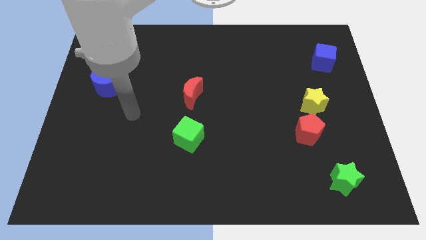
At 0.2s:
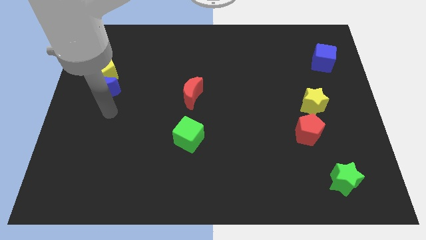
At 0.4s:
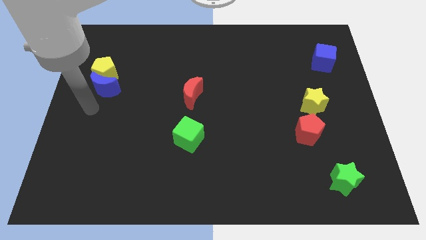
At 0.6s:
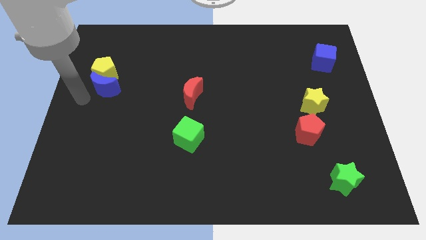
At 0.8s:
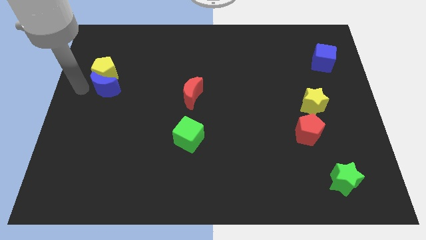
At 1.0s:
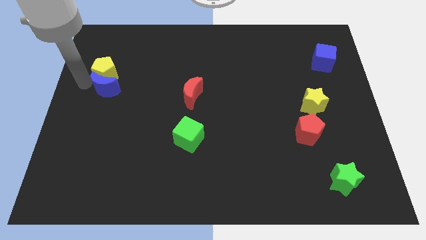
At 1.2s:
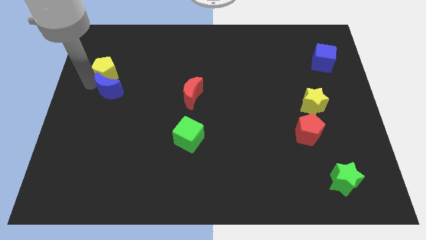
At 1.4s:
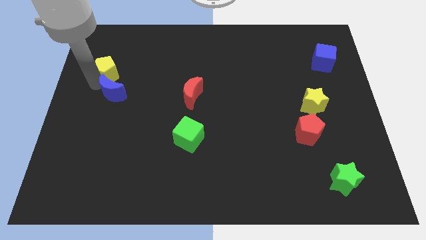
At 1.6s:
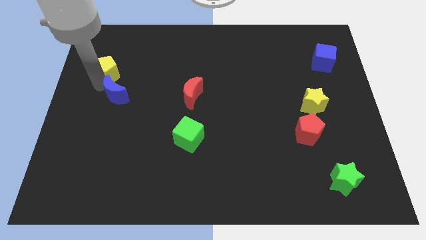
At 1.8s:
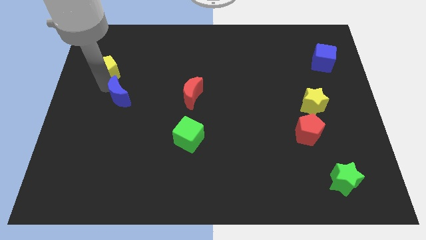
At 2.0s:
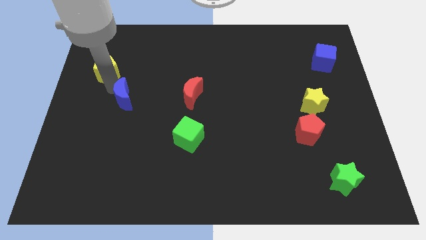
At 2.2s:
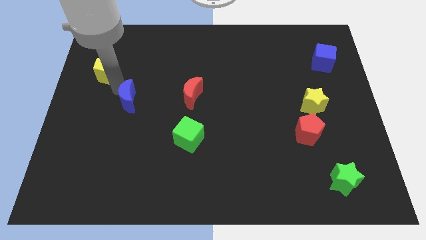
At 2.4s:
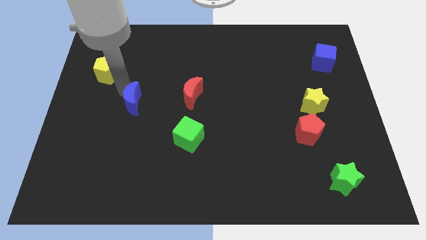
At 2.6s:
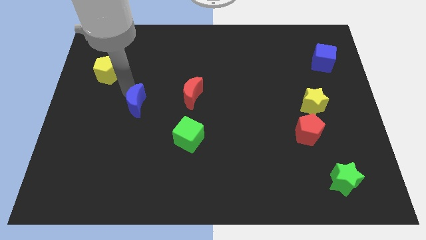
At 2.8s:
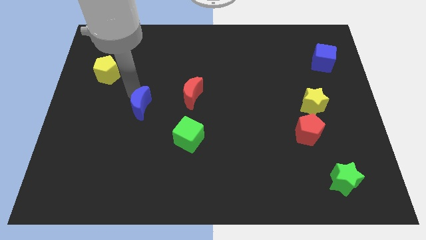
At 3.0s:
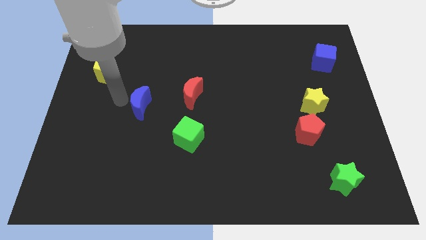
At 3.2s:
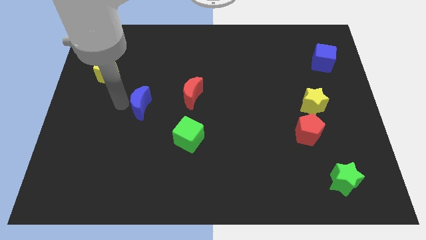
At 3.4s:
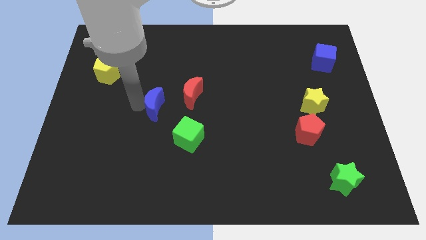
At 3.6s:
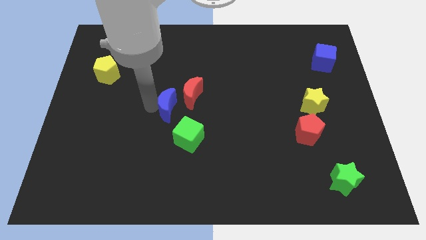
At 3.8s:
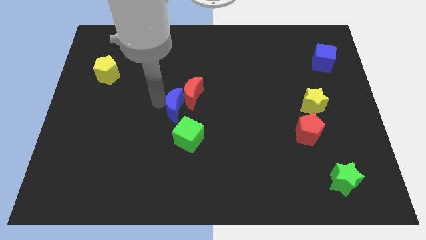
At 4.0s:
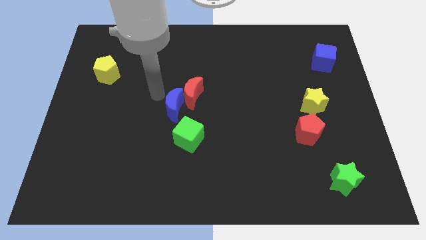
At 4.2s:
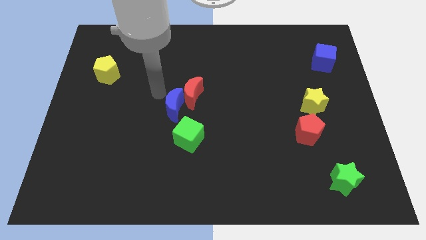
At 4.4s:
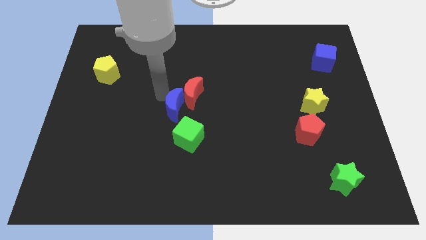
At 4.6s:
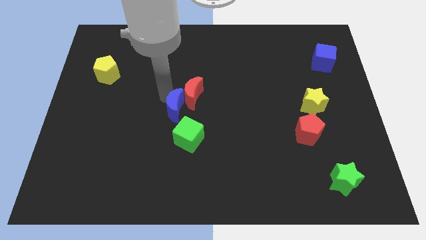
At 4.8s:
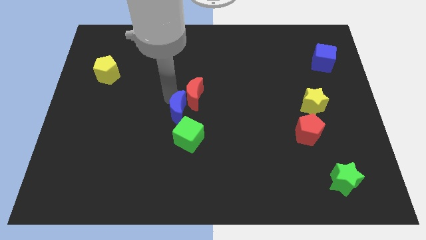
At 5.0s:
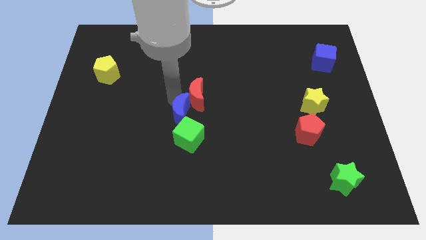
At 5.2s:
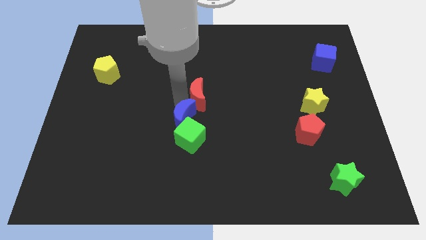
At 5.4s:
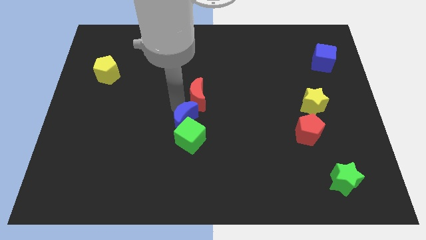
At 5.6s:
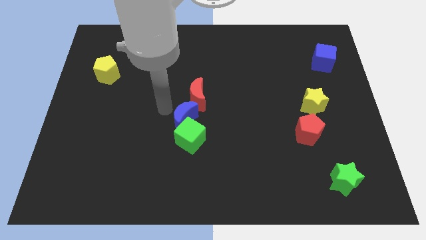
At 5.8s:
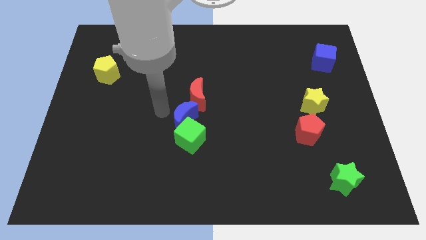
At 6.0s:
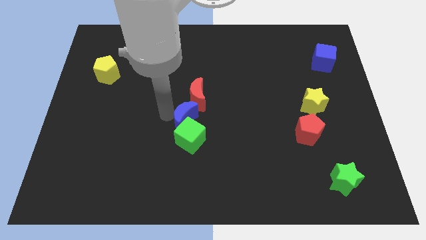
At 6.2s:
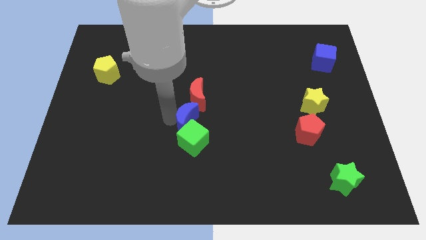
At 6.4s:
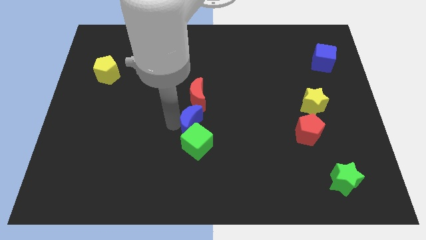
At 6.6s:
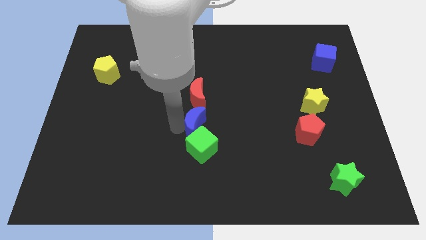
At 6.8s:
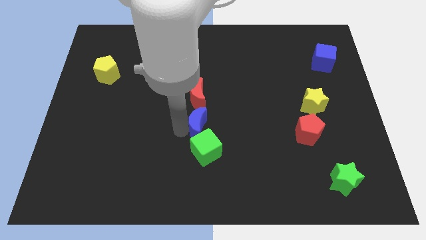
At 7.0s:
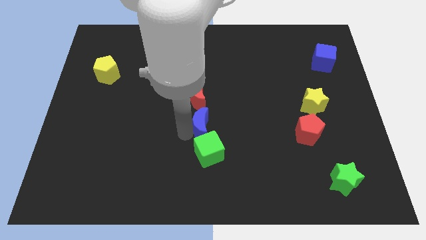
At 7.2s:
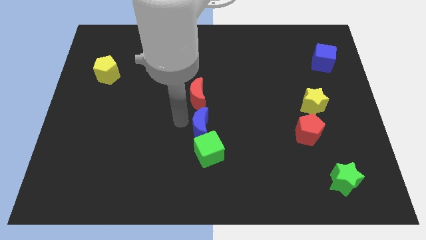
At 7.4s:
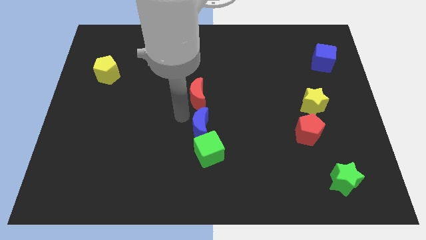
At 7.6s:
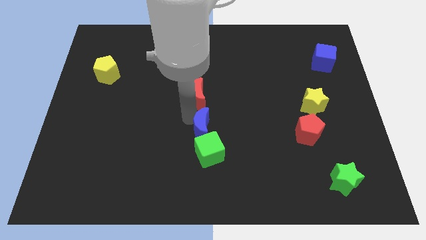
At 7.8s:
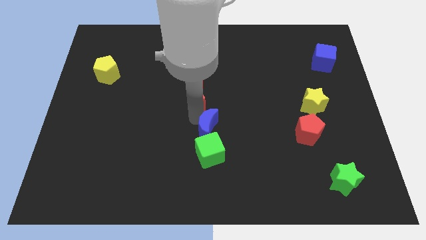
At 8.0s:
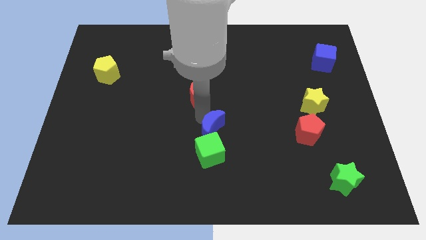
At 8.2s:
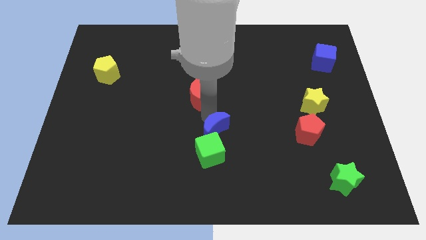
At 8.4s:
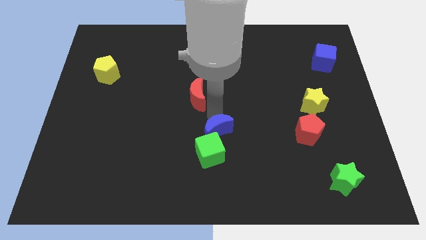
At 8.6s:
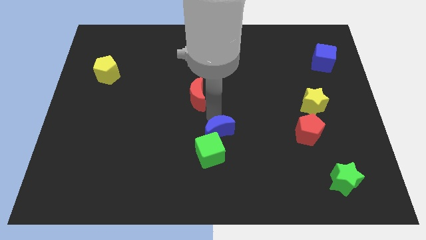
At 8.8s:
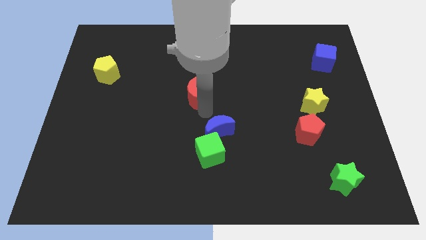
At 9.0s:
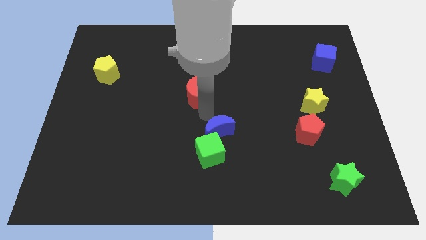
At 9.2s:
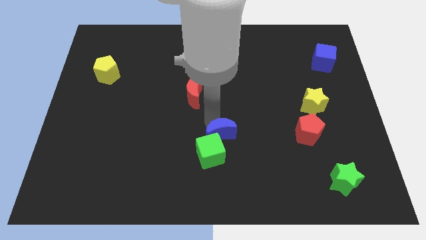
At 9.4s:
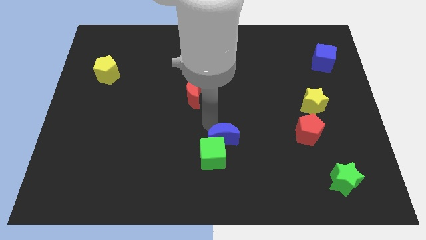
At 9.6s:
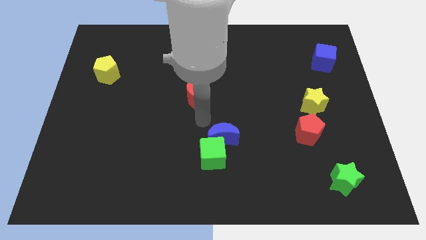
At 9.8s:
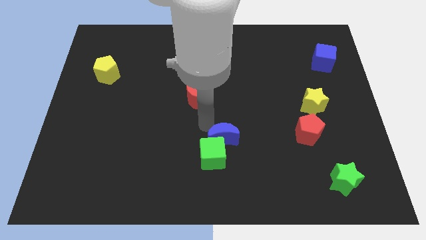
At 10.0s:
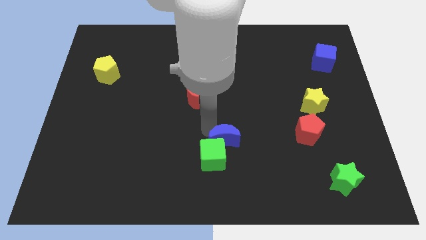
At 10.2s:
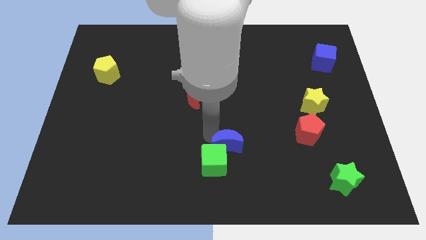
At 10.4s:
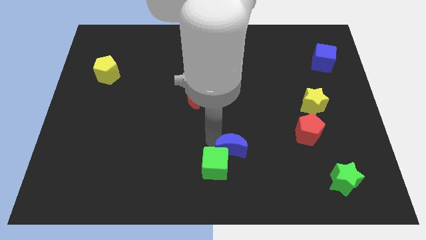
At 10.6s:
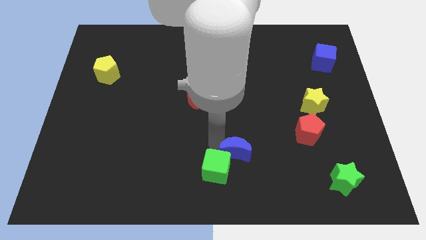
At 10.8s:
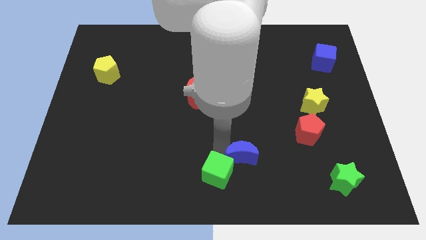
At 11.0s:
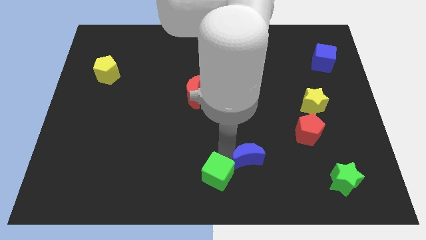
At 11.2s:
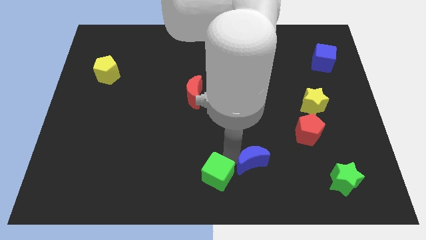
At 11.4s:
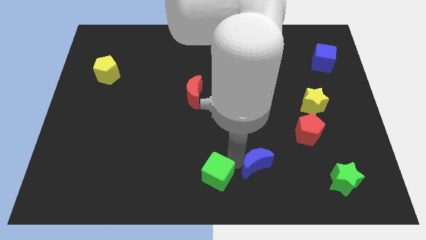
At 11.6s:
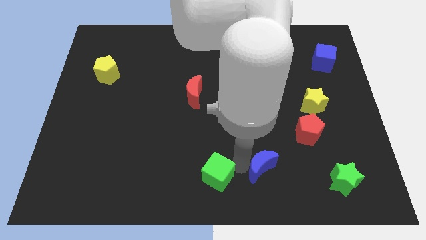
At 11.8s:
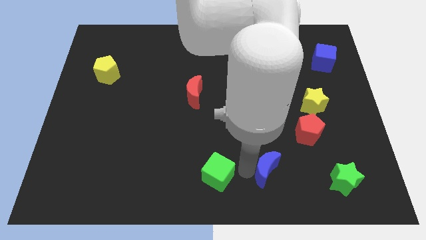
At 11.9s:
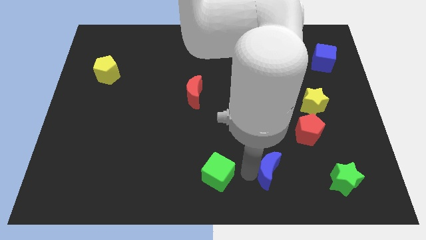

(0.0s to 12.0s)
move the blue moon just left of the green star

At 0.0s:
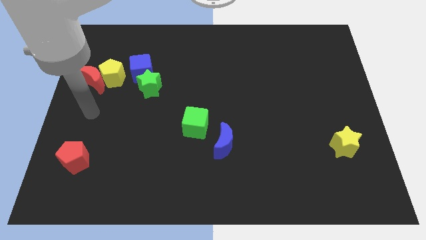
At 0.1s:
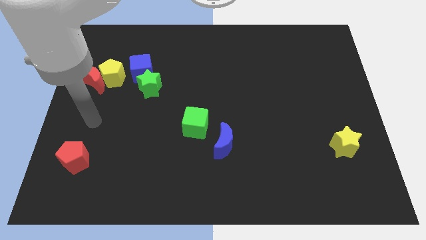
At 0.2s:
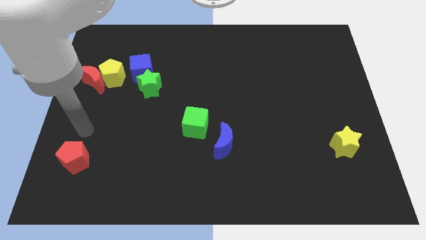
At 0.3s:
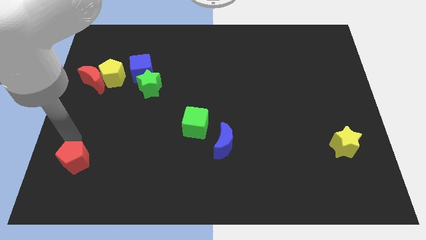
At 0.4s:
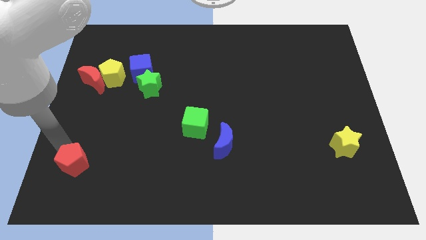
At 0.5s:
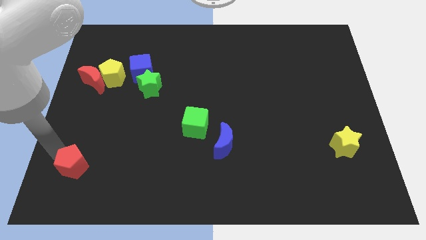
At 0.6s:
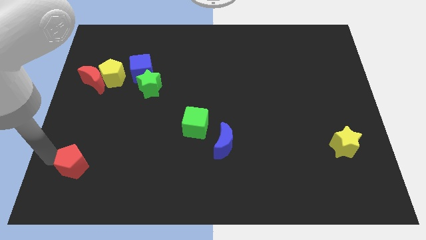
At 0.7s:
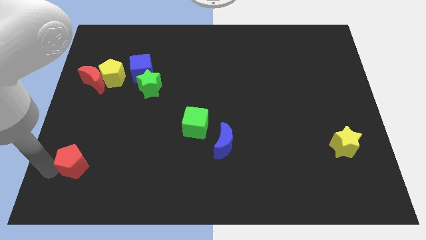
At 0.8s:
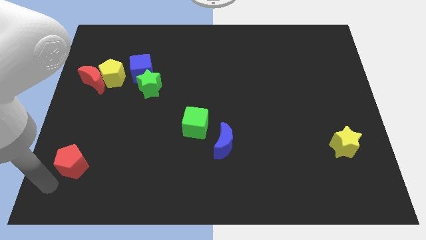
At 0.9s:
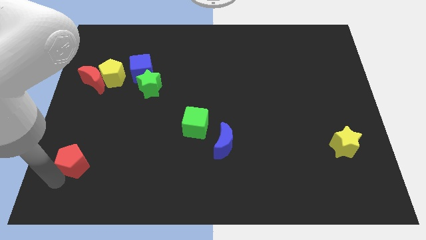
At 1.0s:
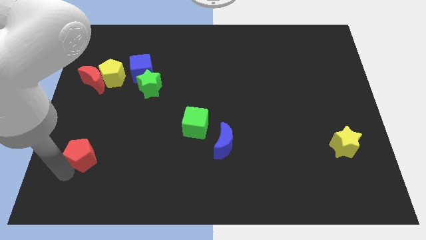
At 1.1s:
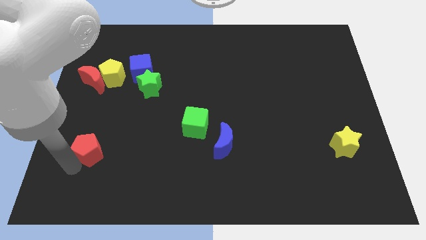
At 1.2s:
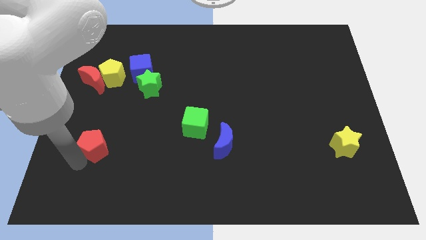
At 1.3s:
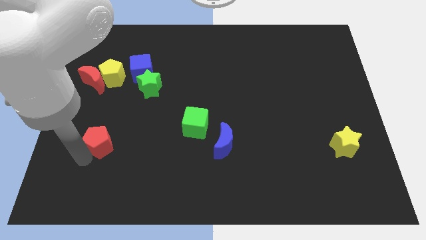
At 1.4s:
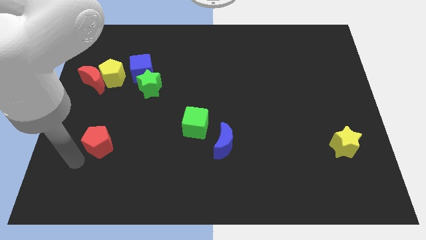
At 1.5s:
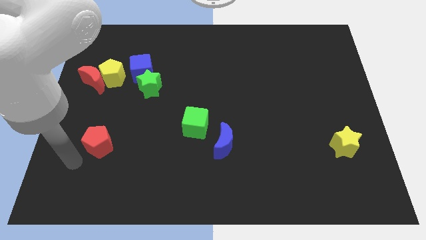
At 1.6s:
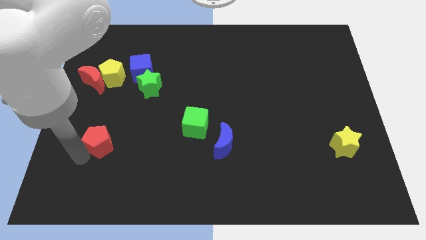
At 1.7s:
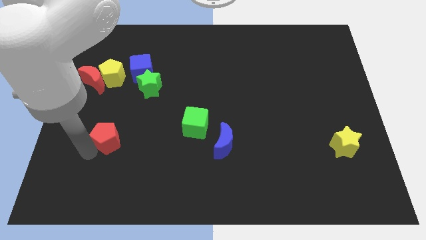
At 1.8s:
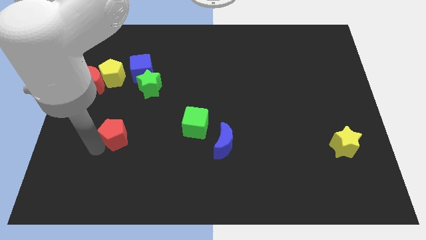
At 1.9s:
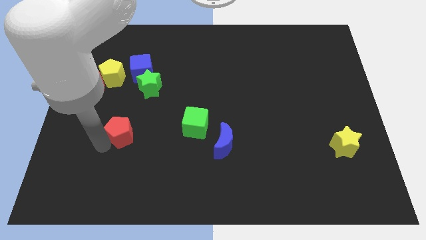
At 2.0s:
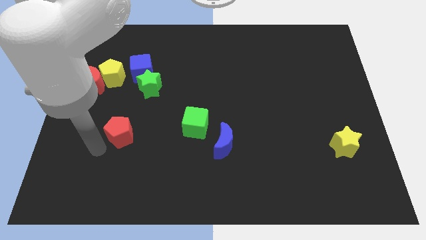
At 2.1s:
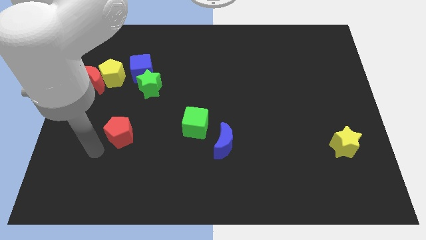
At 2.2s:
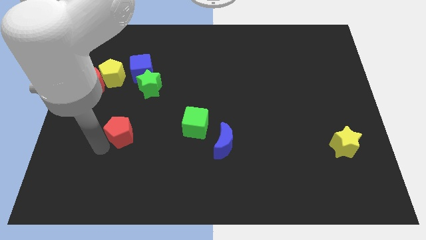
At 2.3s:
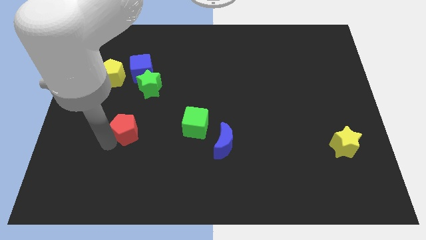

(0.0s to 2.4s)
slide the red pentagon to the bottom side of the green star
